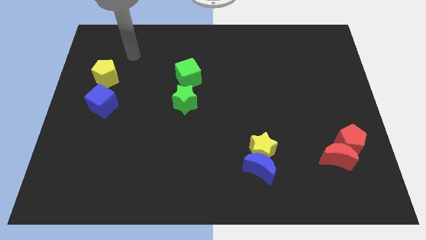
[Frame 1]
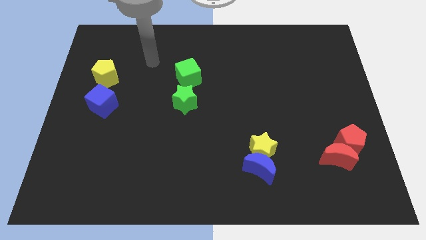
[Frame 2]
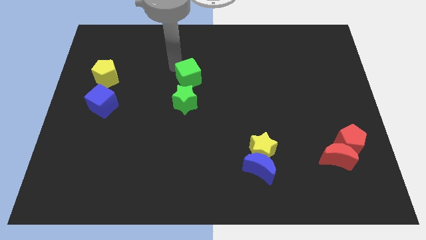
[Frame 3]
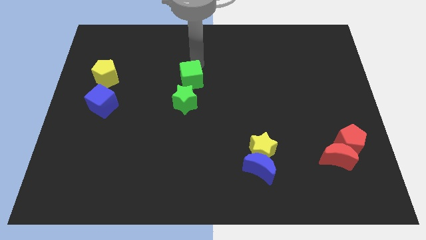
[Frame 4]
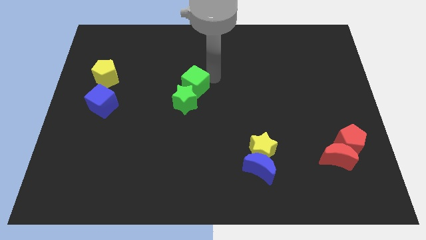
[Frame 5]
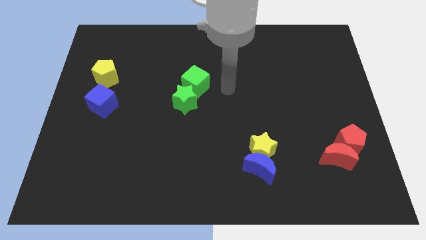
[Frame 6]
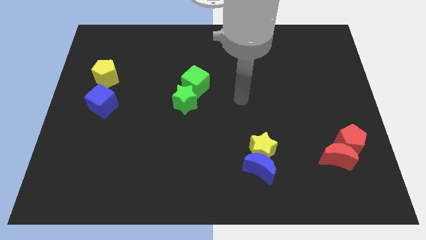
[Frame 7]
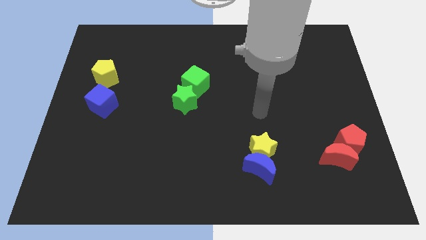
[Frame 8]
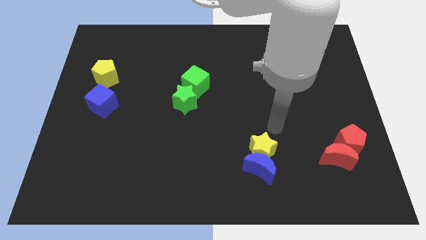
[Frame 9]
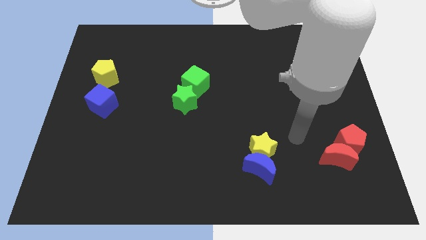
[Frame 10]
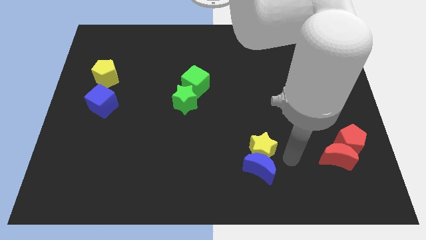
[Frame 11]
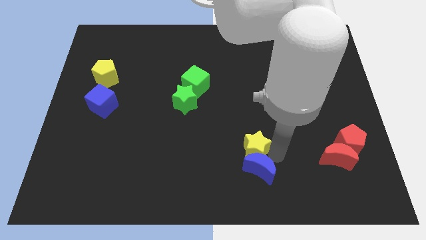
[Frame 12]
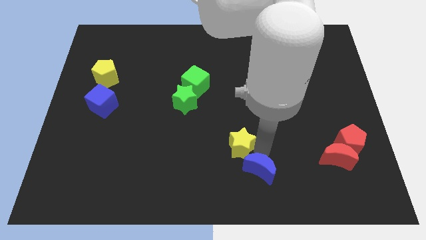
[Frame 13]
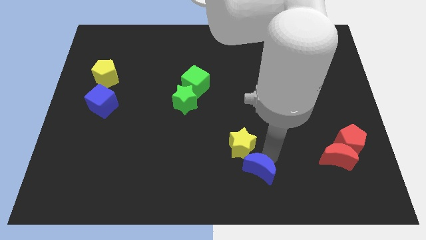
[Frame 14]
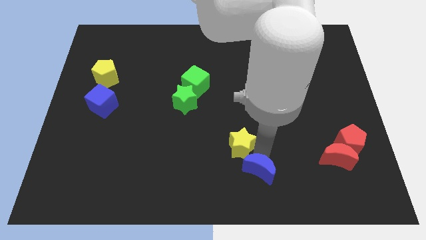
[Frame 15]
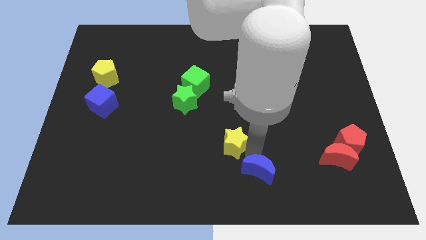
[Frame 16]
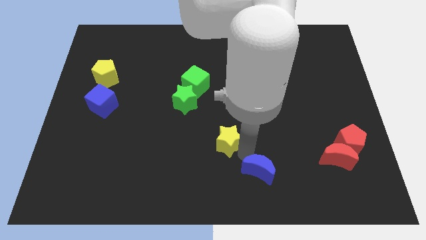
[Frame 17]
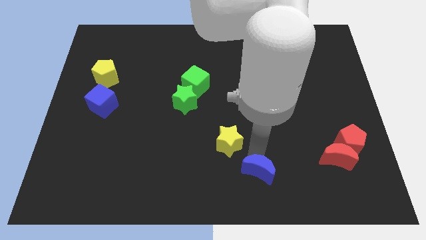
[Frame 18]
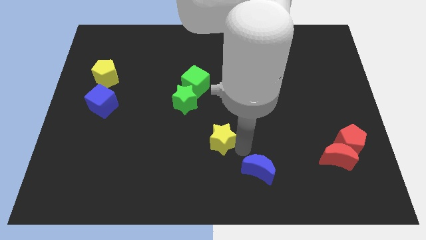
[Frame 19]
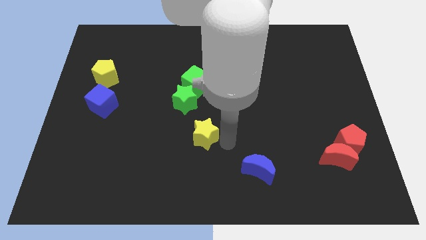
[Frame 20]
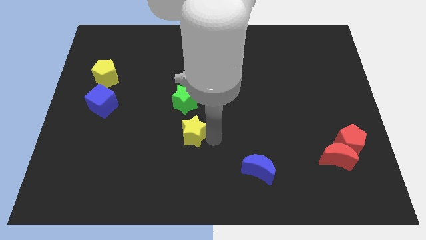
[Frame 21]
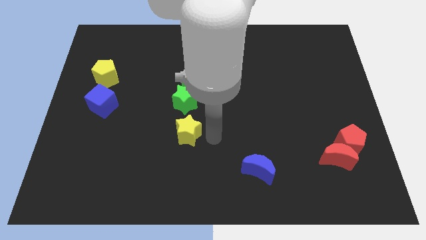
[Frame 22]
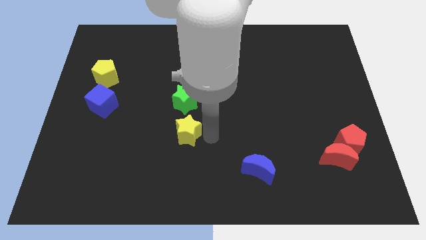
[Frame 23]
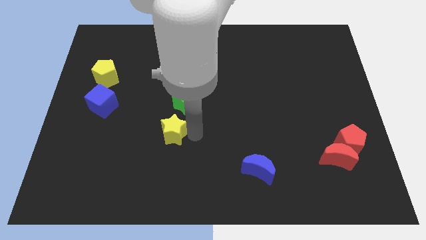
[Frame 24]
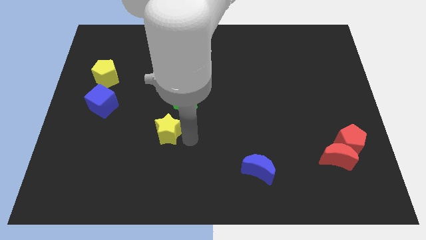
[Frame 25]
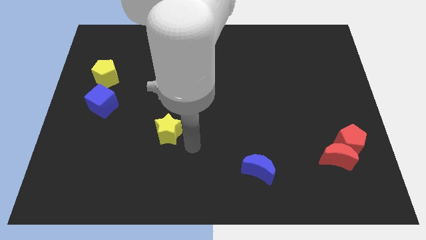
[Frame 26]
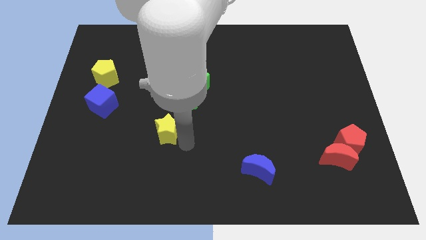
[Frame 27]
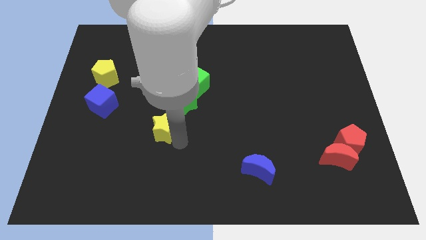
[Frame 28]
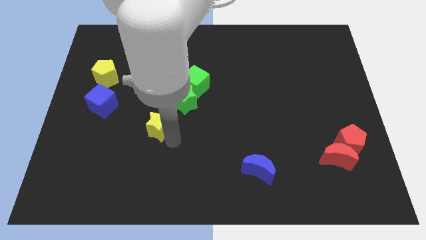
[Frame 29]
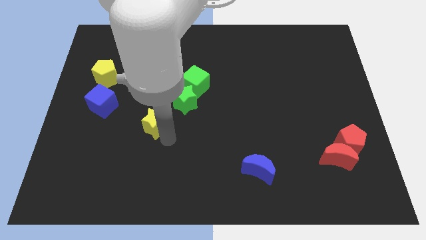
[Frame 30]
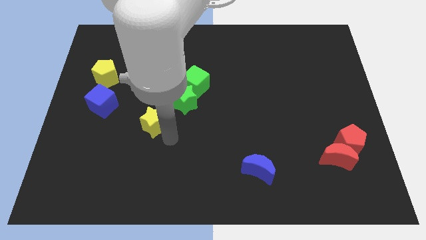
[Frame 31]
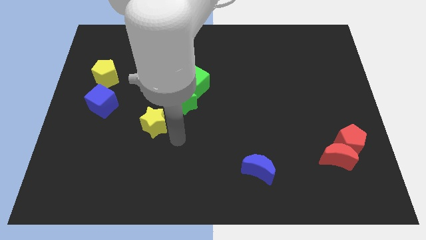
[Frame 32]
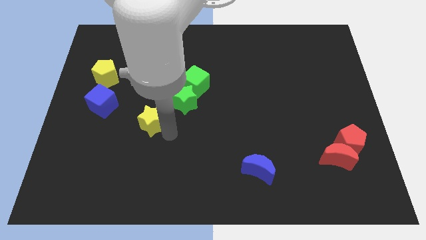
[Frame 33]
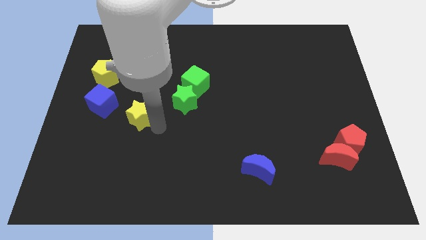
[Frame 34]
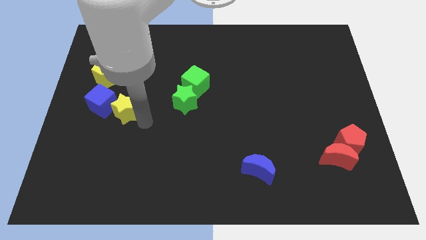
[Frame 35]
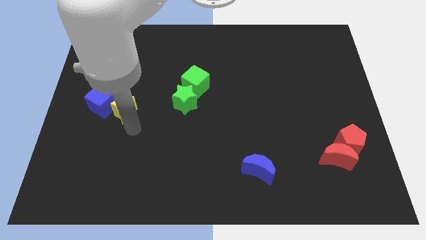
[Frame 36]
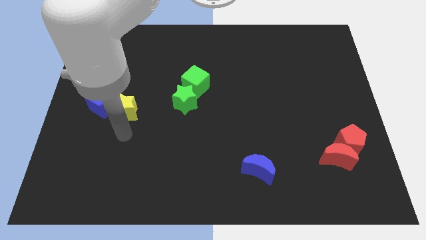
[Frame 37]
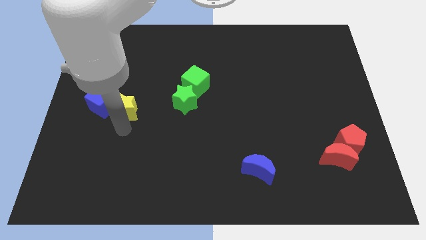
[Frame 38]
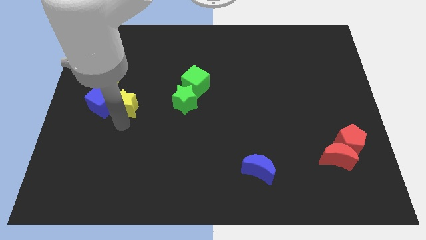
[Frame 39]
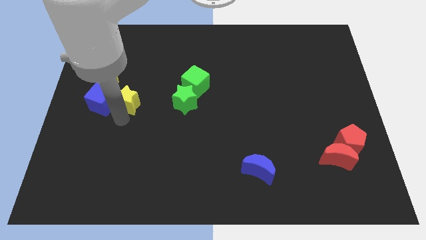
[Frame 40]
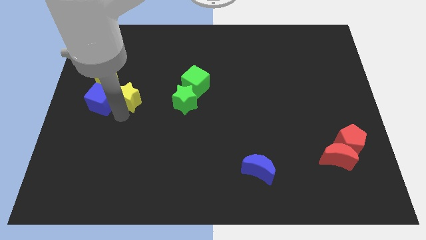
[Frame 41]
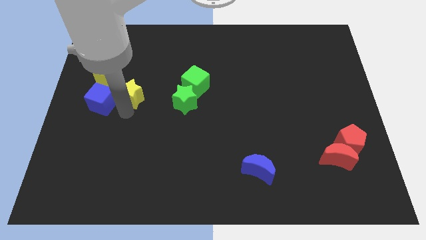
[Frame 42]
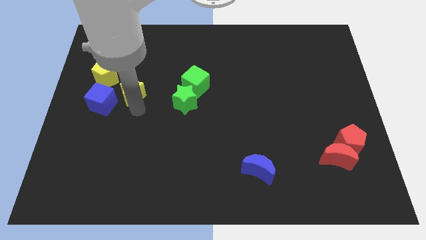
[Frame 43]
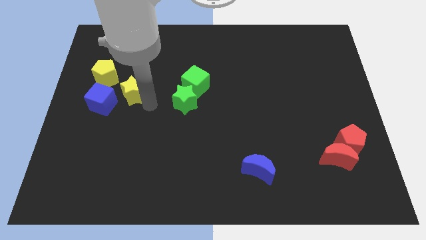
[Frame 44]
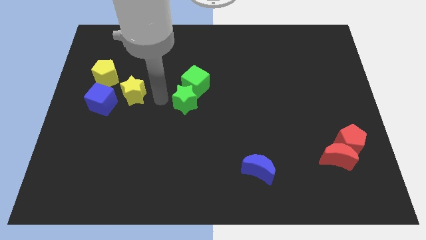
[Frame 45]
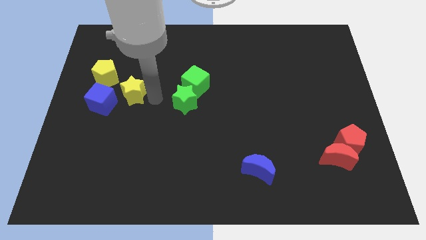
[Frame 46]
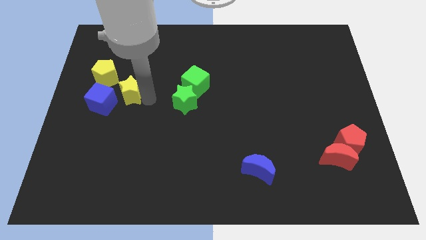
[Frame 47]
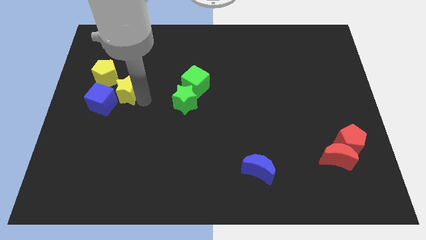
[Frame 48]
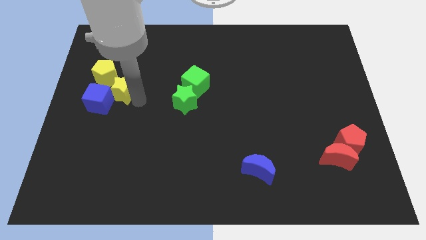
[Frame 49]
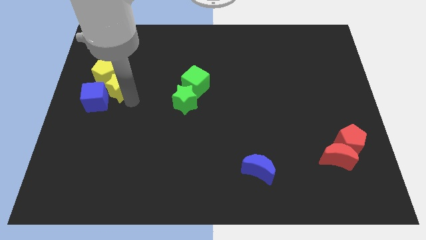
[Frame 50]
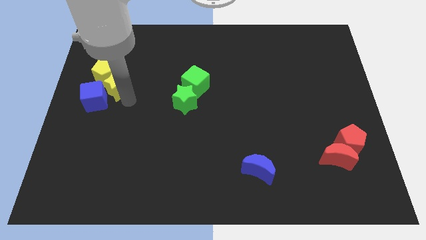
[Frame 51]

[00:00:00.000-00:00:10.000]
push the yellow star towards the yellow pentagon

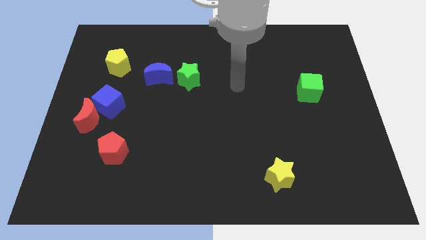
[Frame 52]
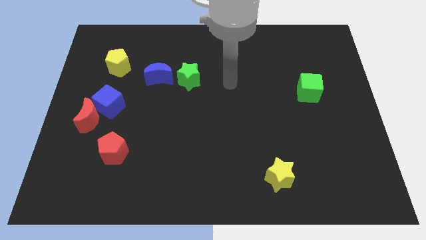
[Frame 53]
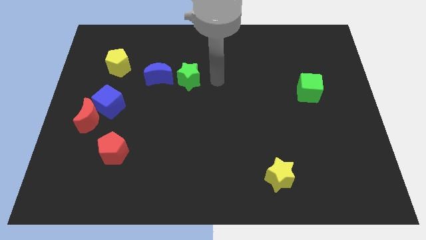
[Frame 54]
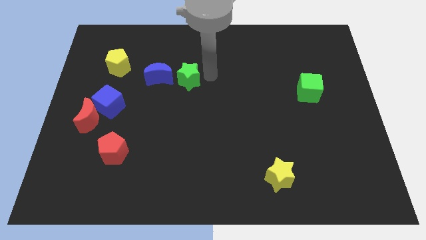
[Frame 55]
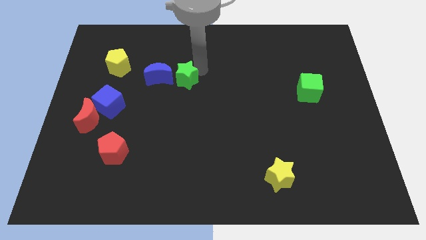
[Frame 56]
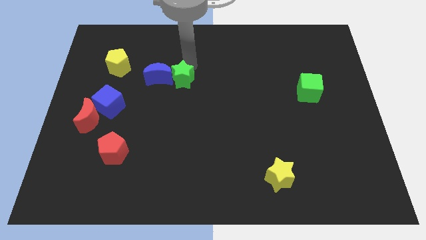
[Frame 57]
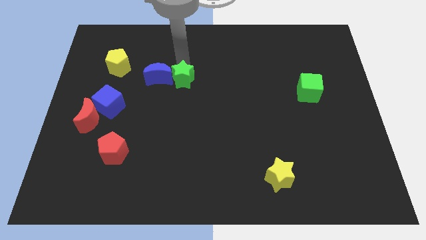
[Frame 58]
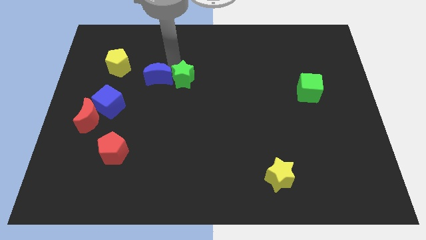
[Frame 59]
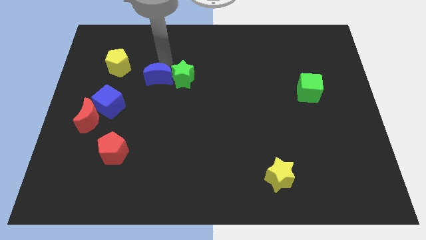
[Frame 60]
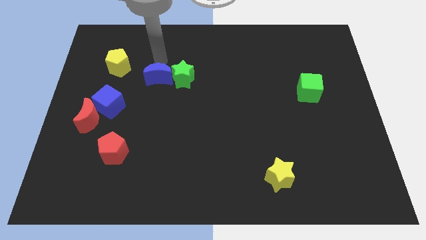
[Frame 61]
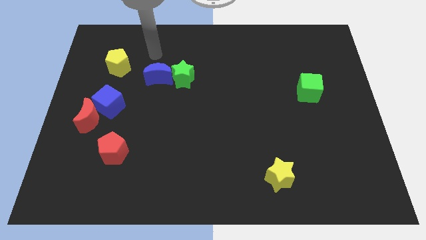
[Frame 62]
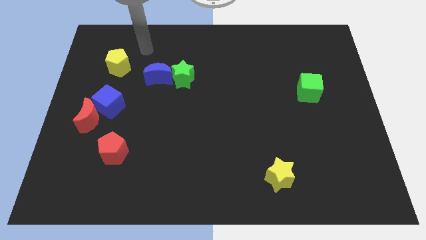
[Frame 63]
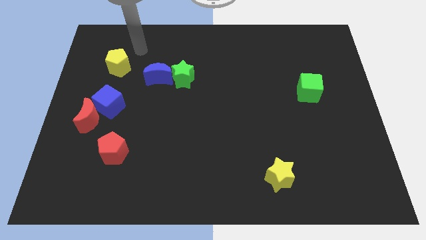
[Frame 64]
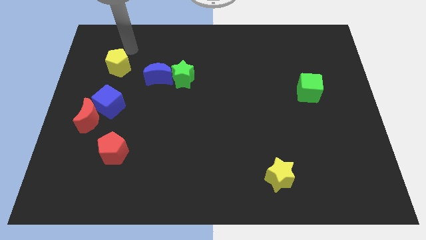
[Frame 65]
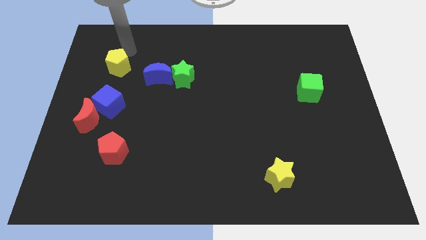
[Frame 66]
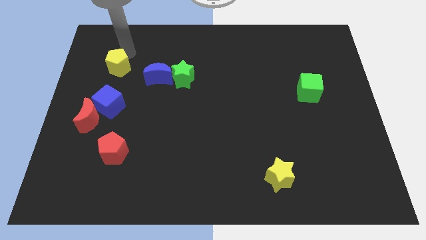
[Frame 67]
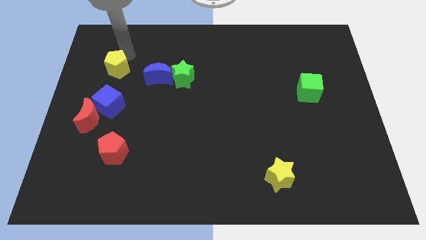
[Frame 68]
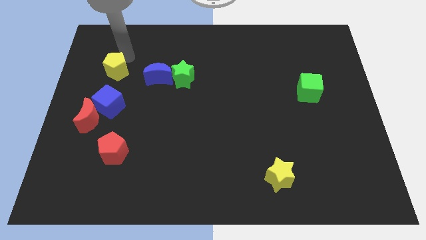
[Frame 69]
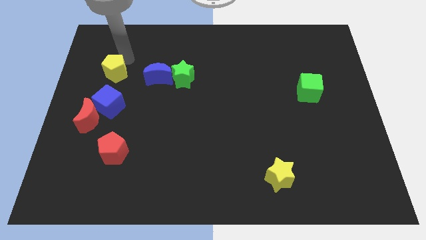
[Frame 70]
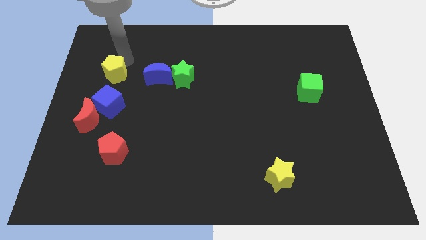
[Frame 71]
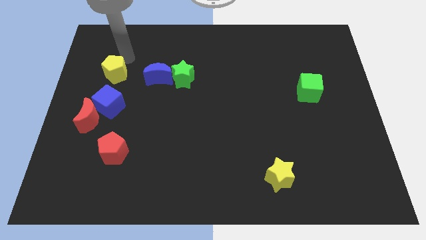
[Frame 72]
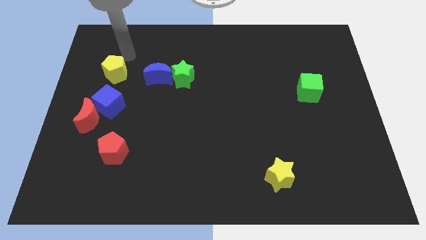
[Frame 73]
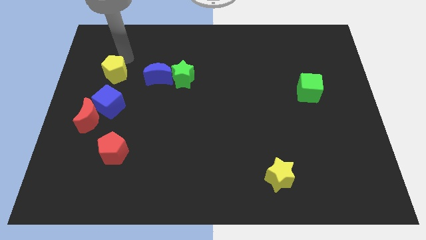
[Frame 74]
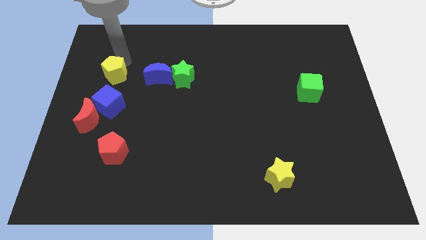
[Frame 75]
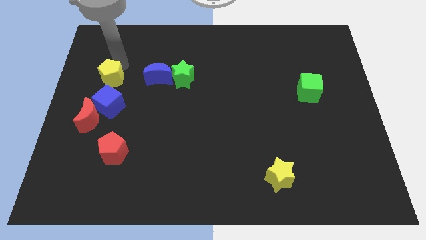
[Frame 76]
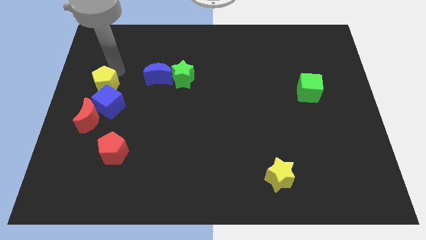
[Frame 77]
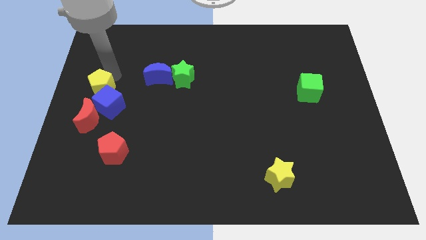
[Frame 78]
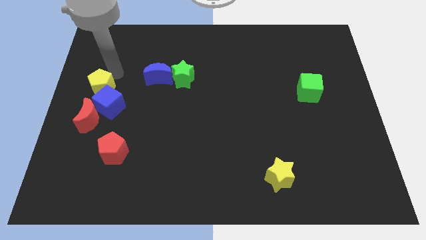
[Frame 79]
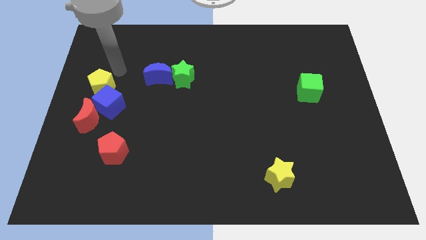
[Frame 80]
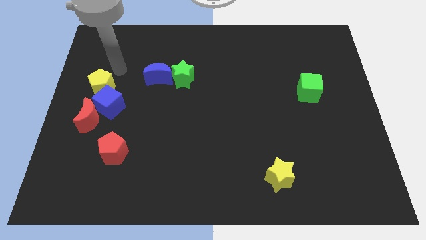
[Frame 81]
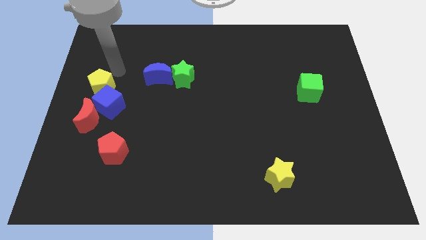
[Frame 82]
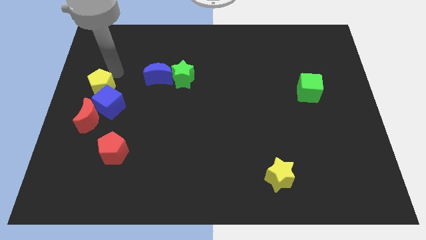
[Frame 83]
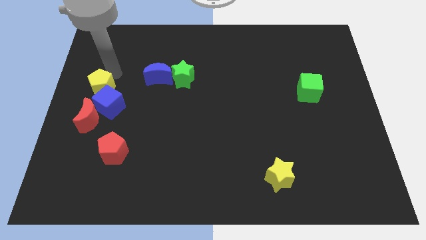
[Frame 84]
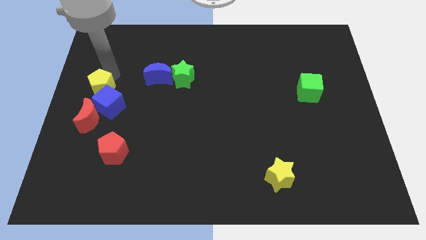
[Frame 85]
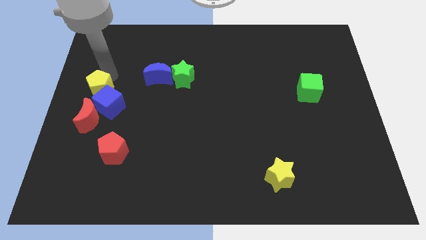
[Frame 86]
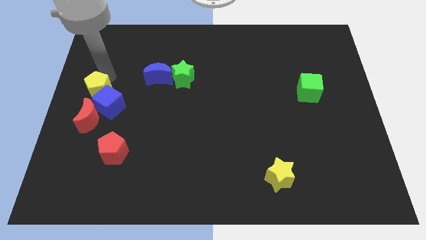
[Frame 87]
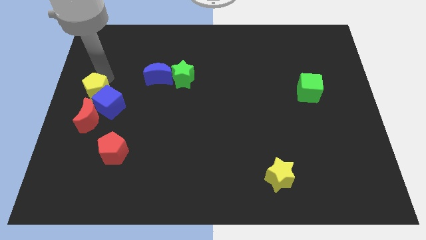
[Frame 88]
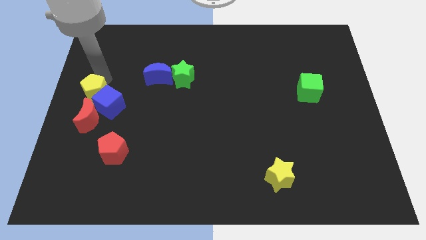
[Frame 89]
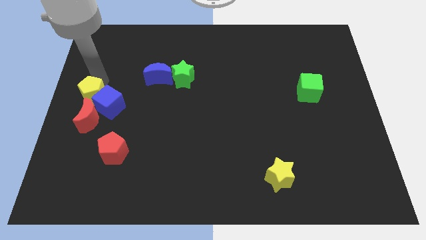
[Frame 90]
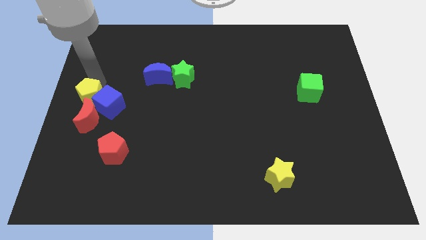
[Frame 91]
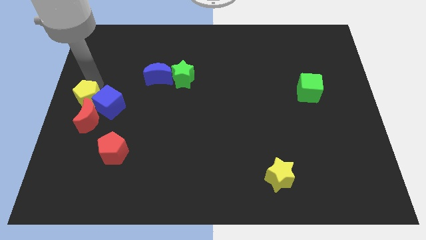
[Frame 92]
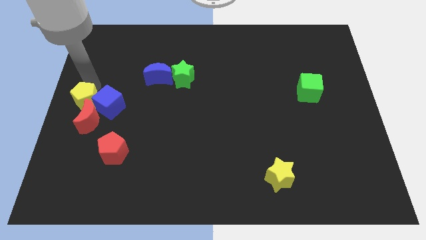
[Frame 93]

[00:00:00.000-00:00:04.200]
put the yellow pentagon towards the red moon
